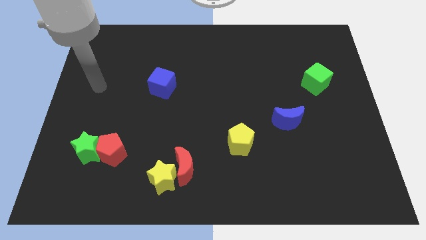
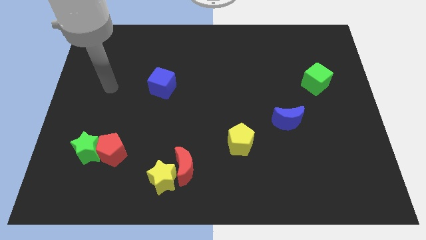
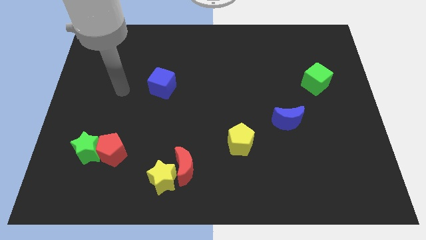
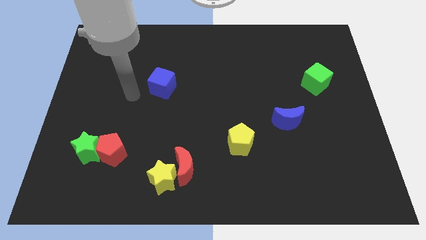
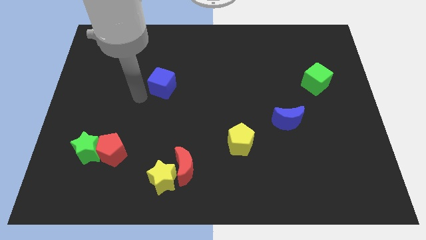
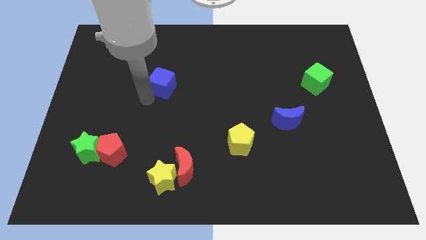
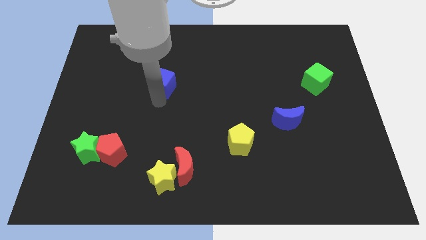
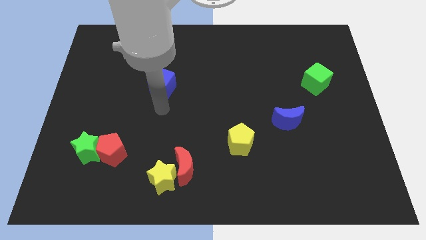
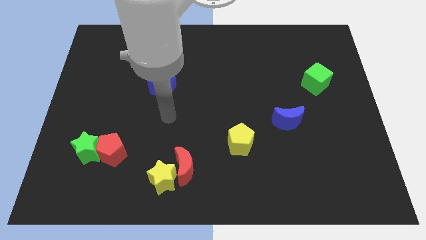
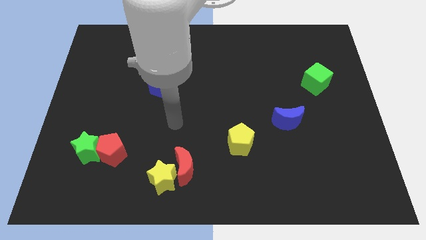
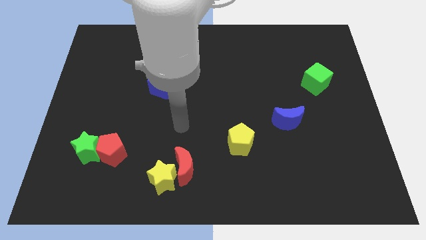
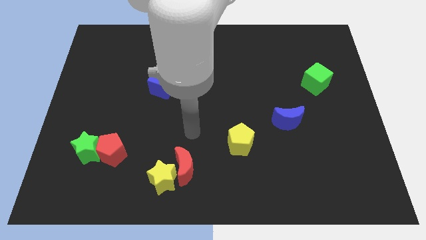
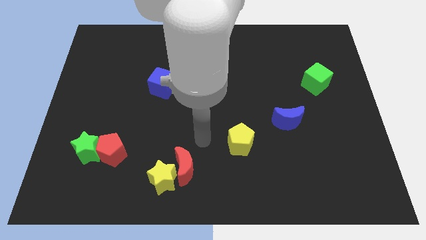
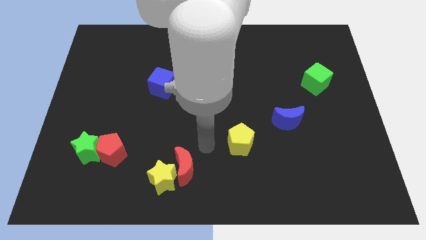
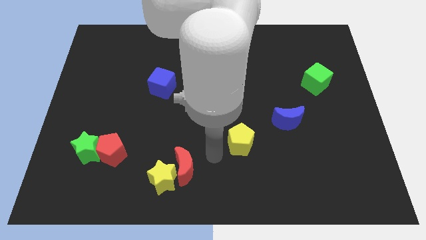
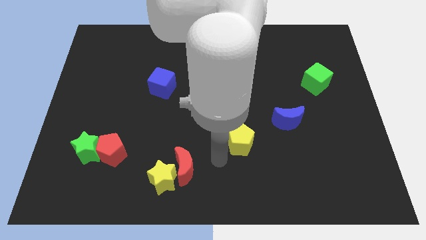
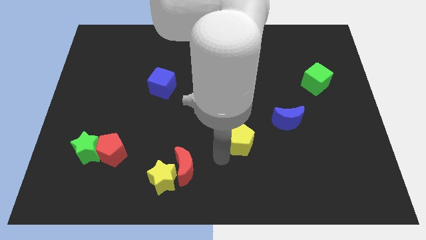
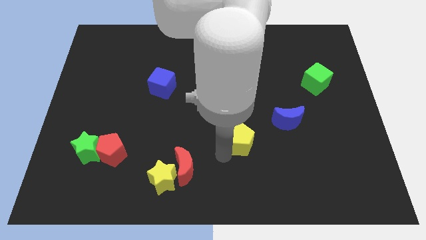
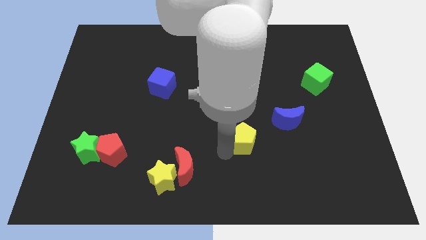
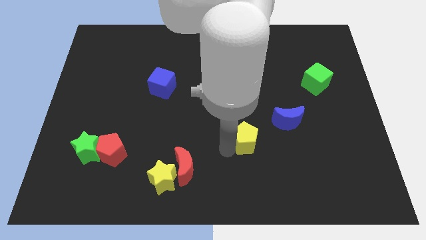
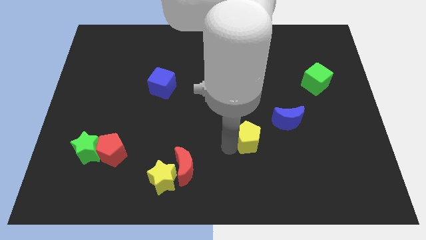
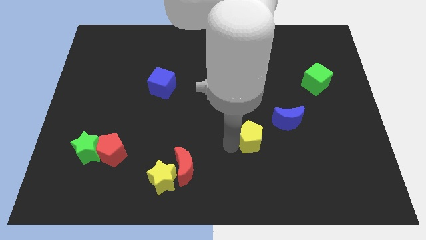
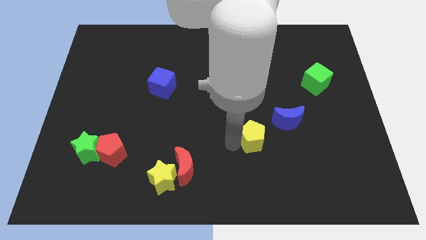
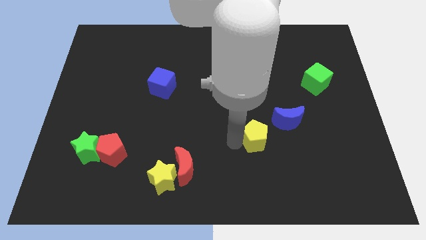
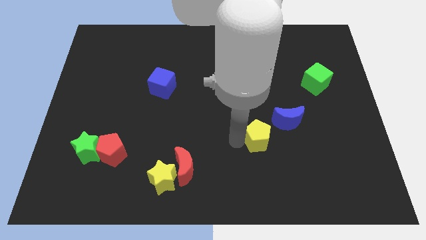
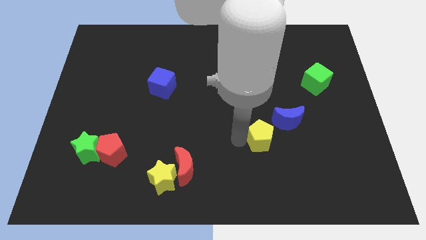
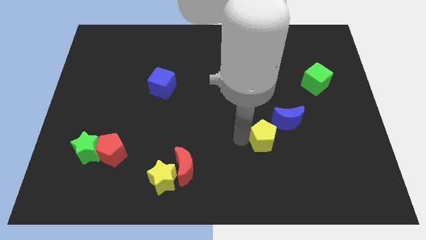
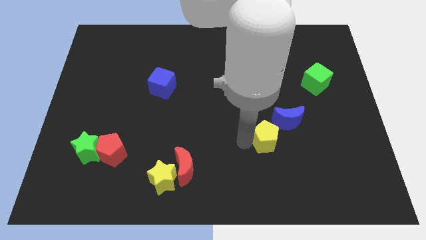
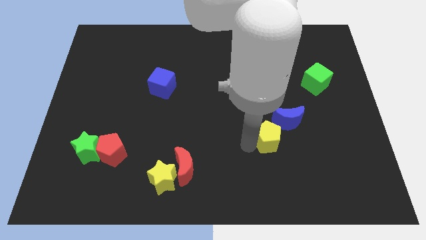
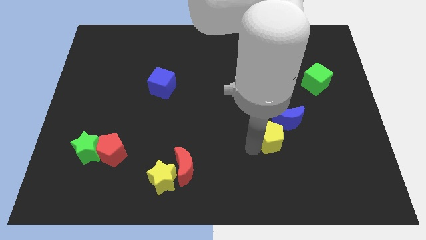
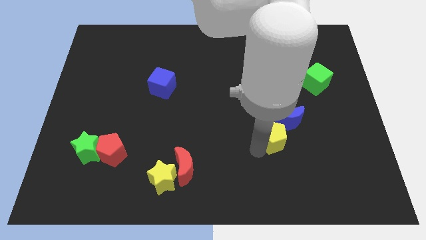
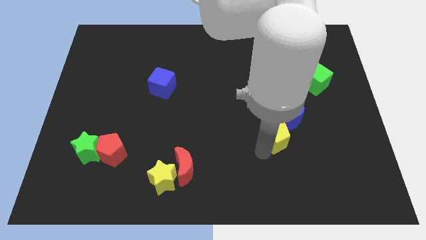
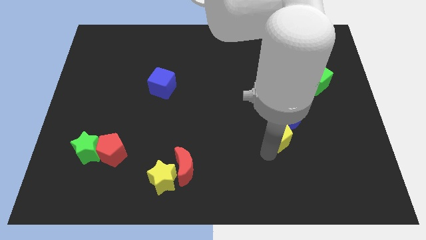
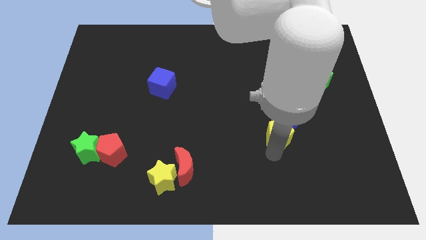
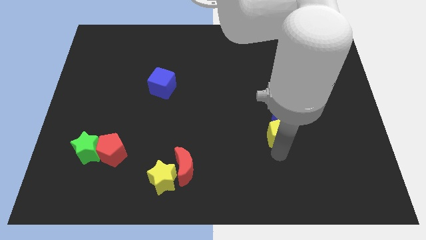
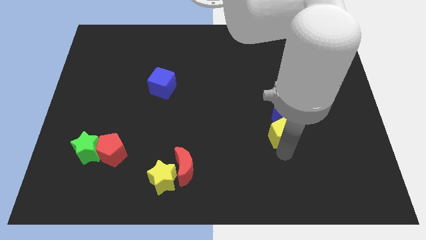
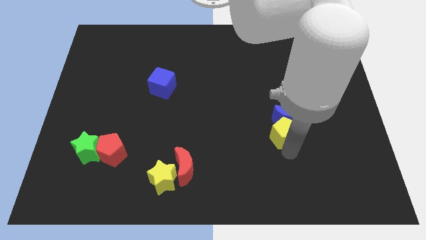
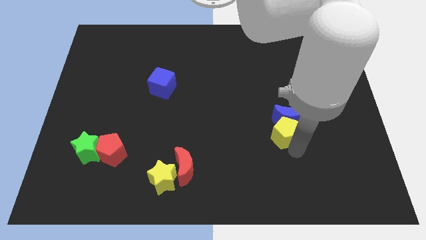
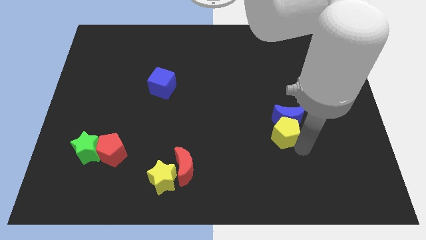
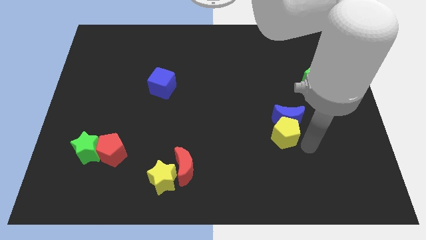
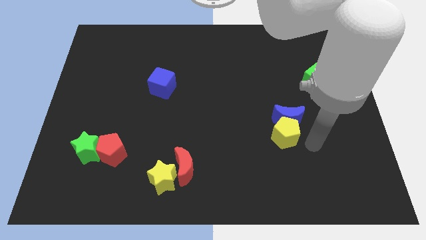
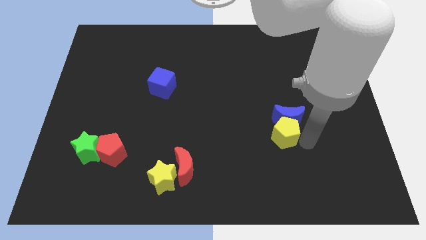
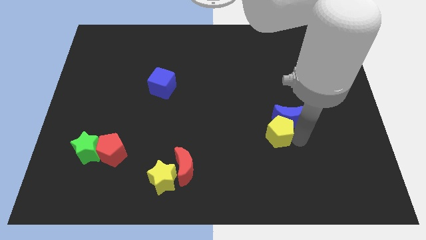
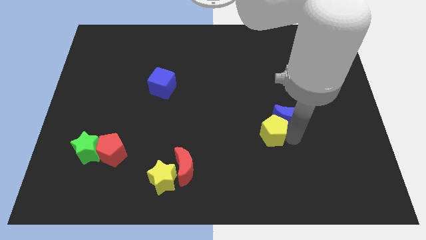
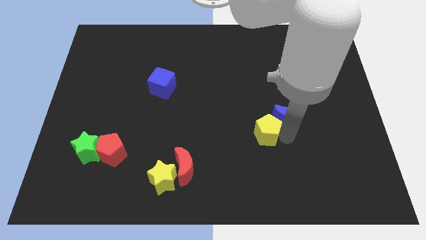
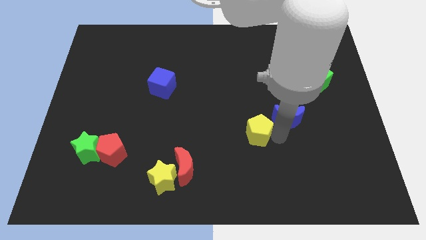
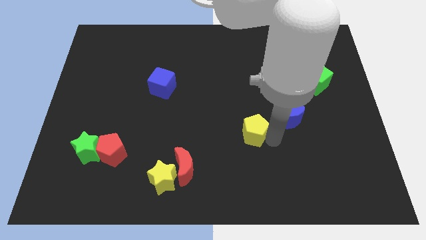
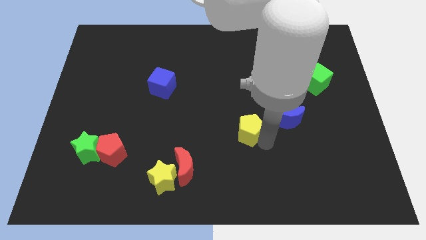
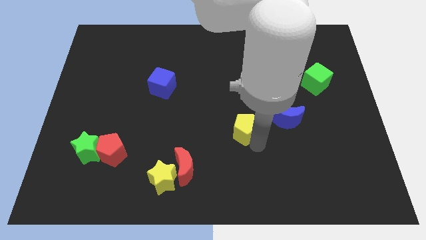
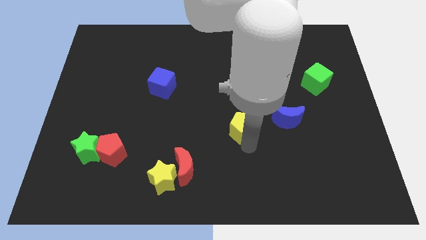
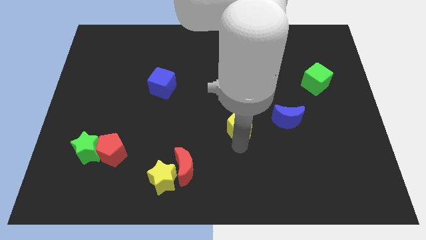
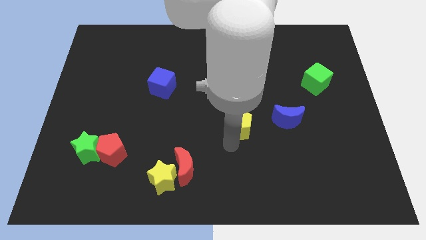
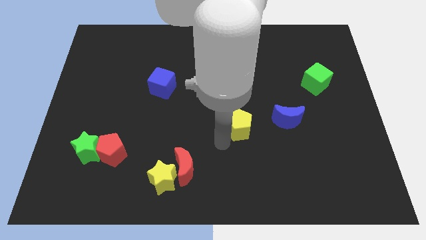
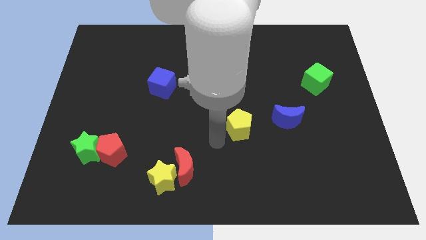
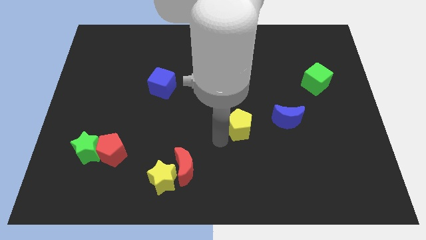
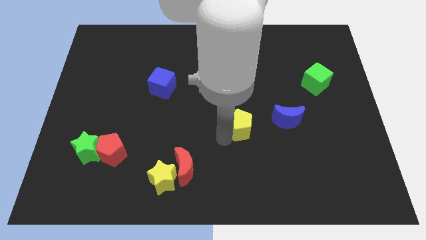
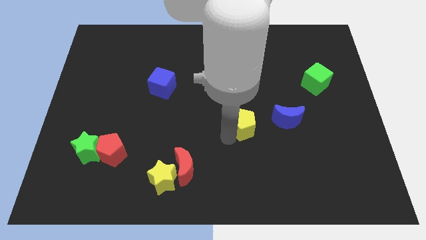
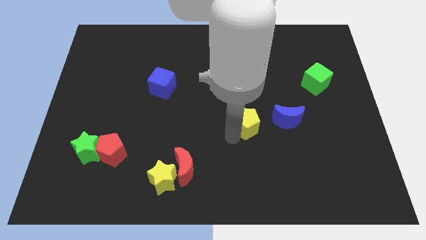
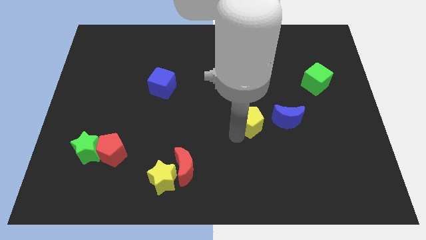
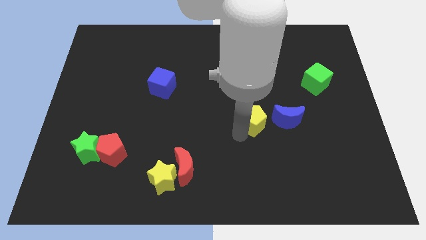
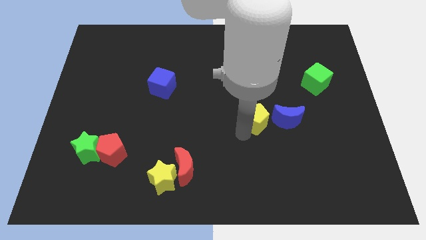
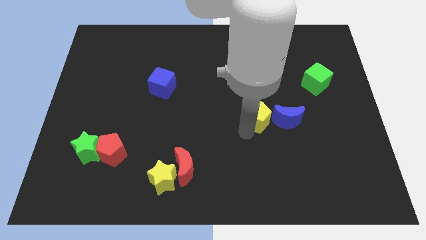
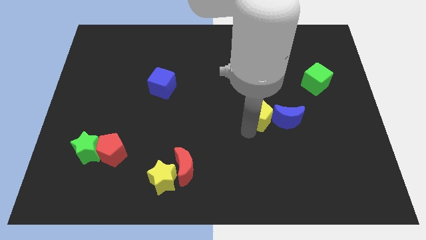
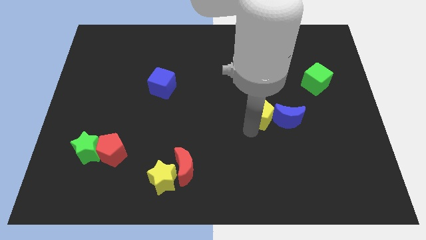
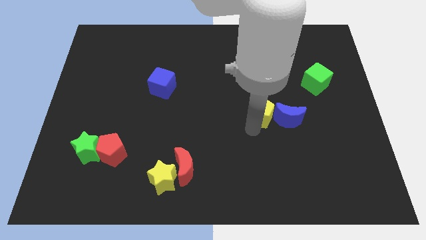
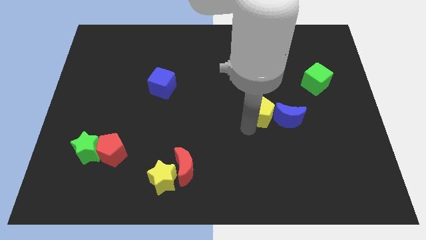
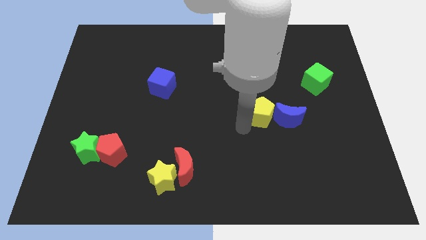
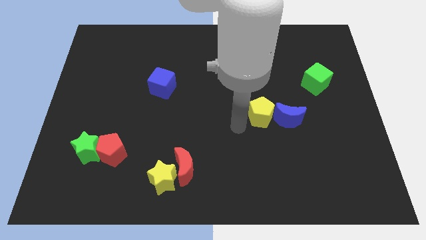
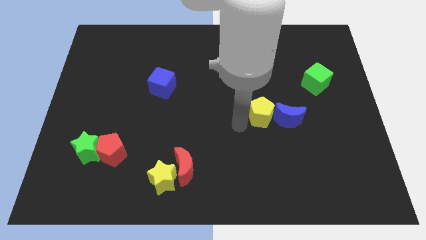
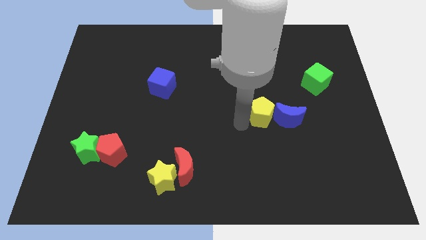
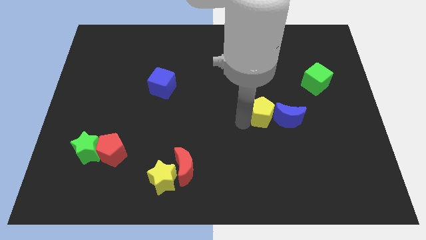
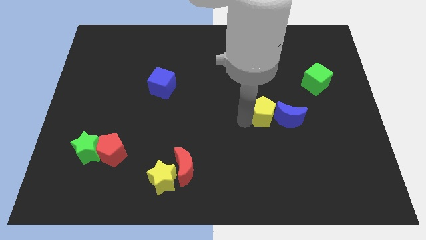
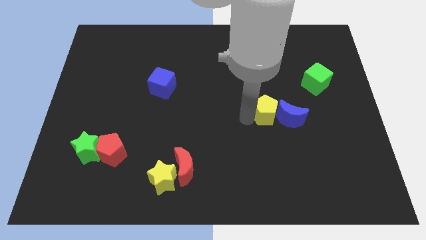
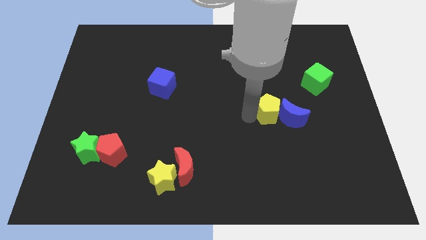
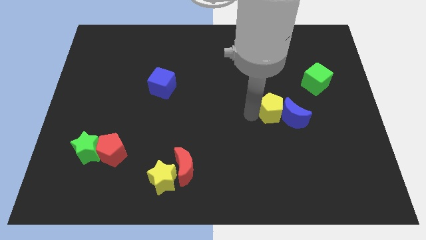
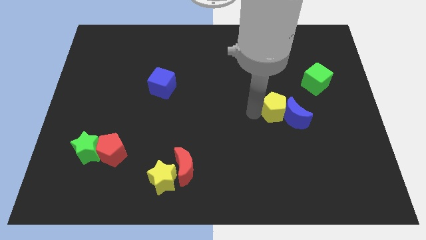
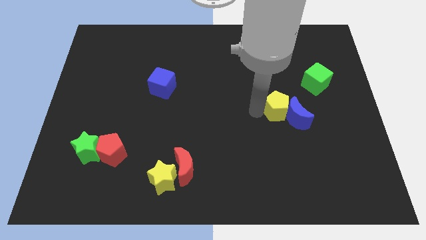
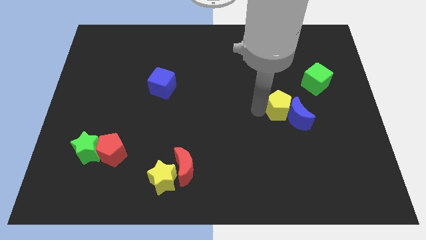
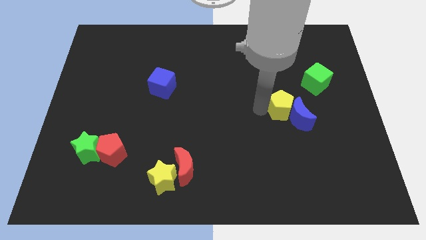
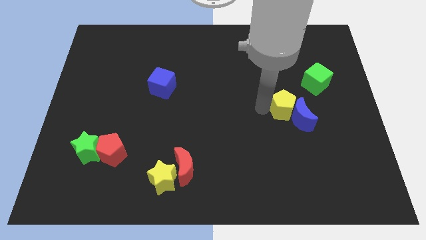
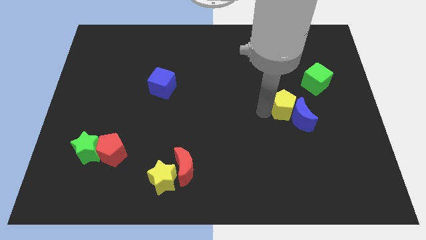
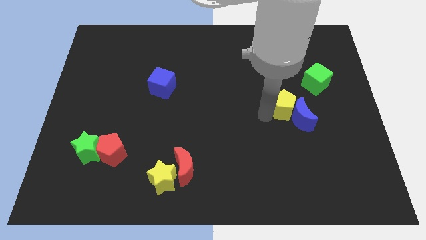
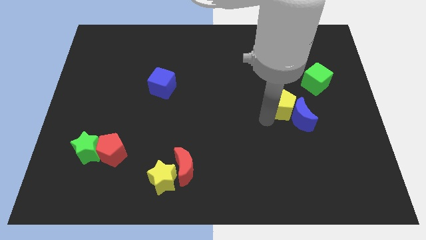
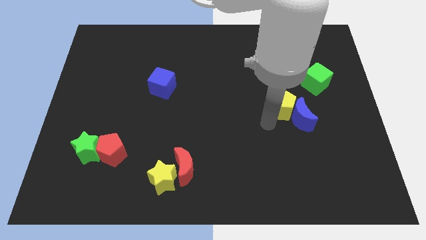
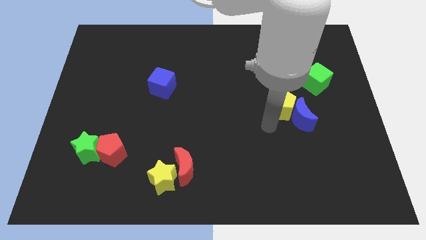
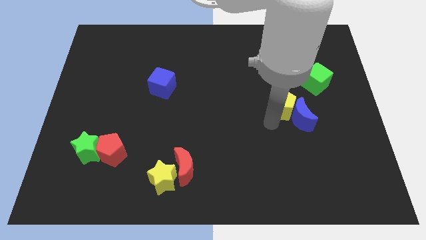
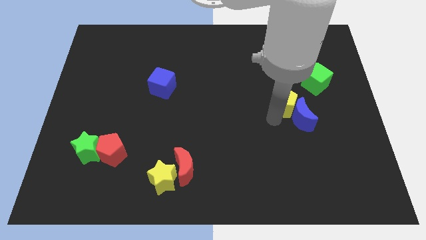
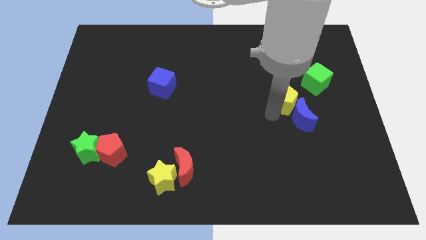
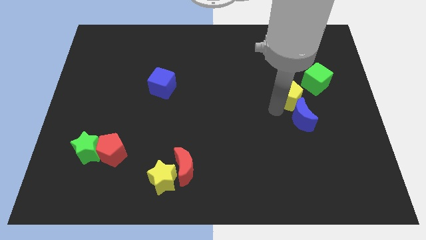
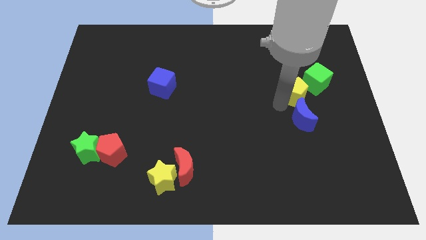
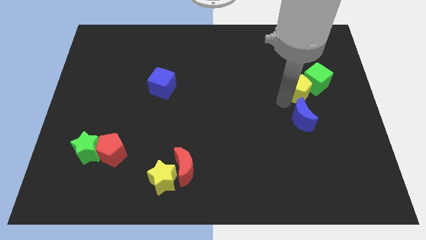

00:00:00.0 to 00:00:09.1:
push the yellow pentagon to the green cube
